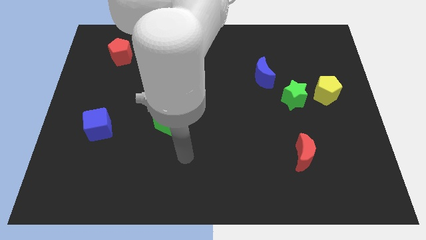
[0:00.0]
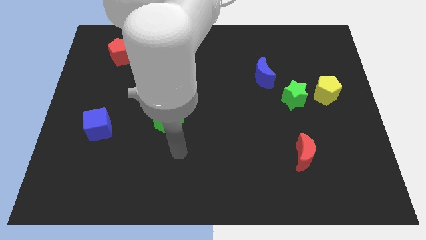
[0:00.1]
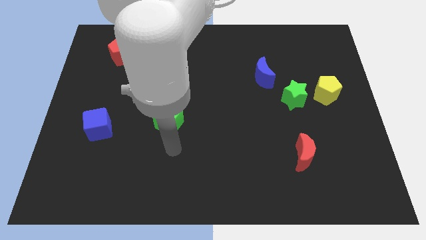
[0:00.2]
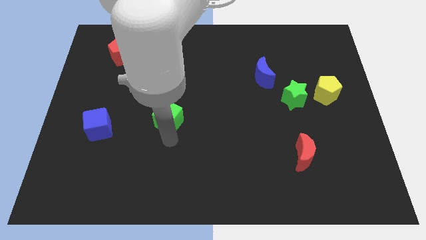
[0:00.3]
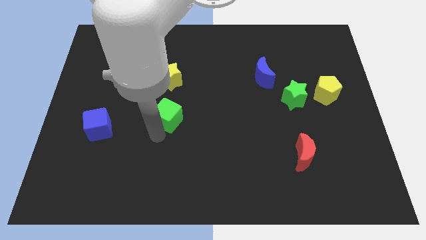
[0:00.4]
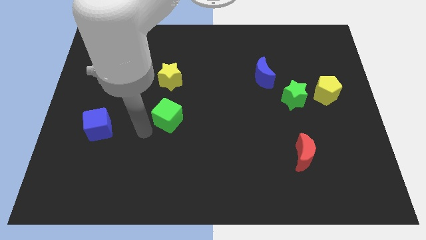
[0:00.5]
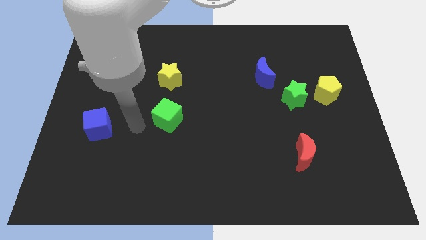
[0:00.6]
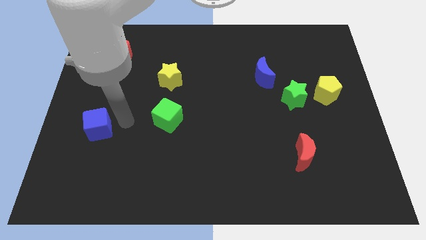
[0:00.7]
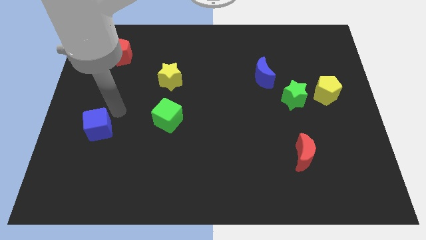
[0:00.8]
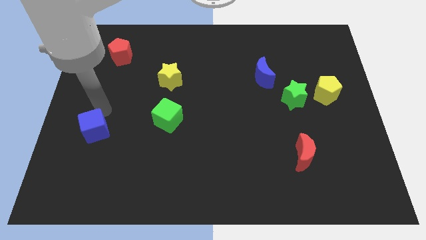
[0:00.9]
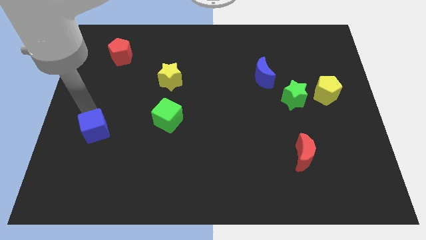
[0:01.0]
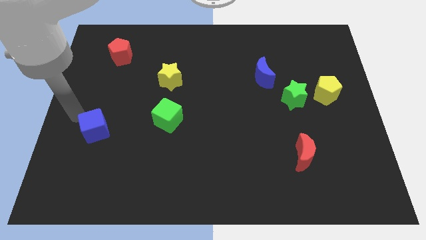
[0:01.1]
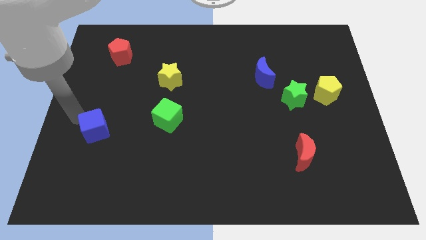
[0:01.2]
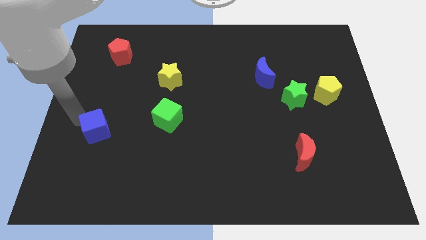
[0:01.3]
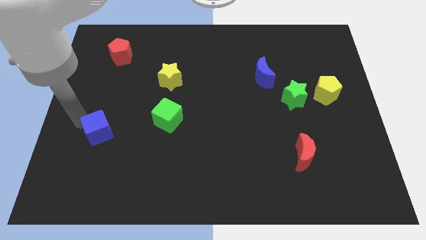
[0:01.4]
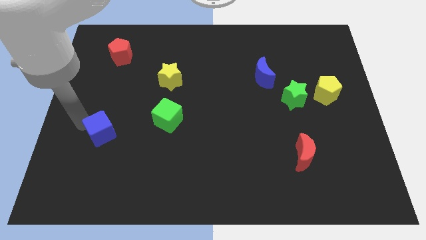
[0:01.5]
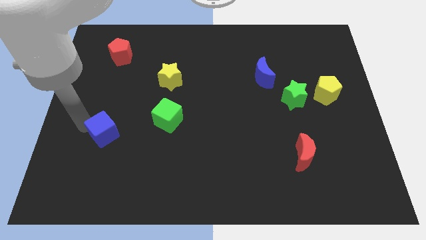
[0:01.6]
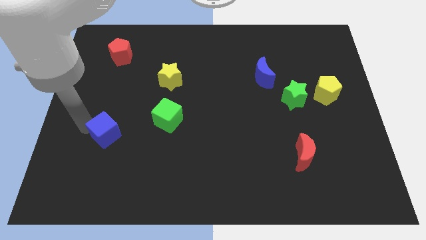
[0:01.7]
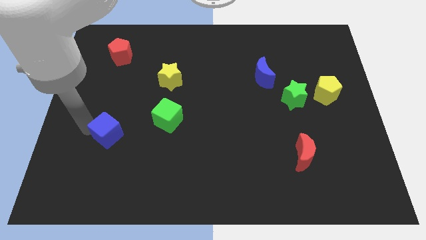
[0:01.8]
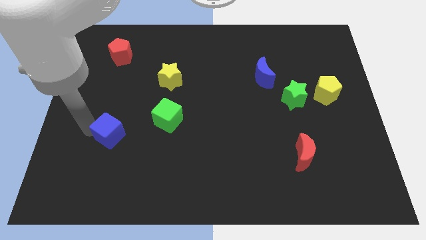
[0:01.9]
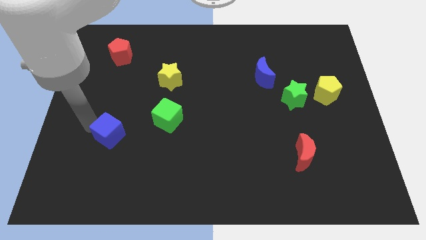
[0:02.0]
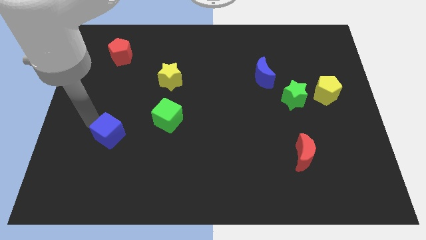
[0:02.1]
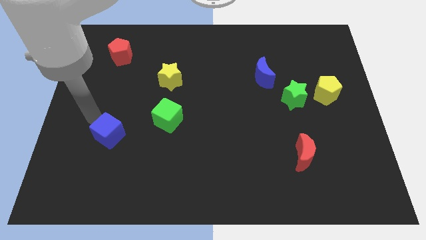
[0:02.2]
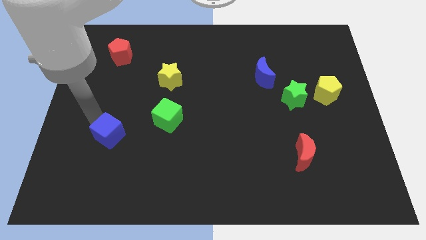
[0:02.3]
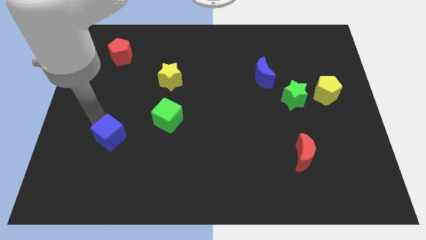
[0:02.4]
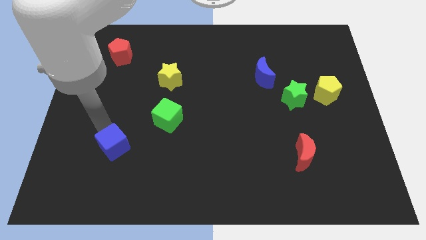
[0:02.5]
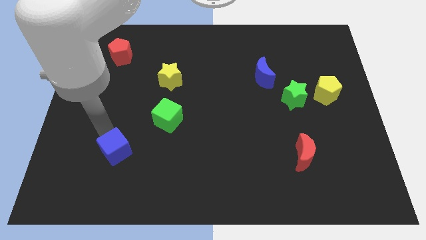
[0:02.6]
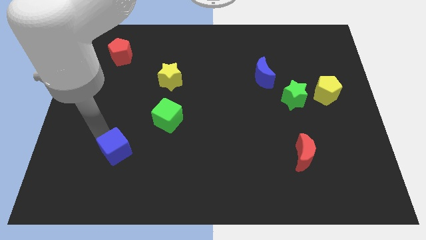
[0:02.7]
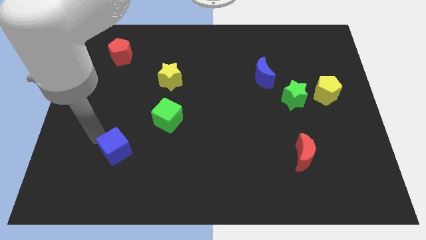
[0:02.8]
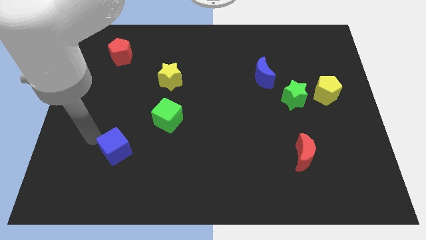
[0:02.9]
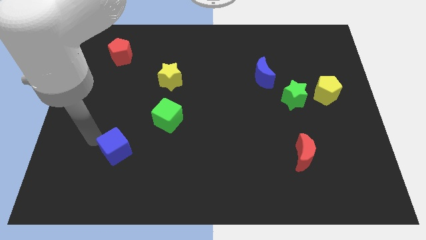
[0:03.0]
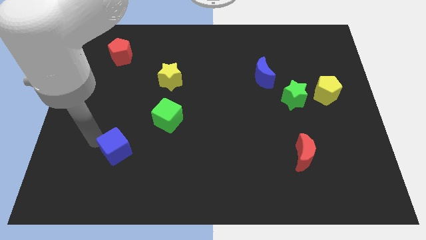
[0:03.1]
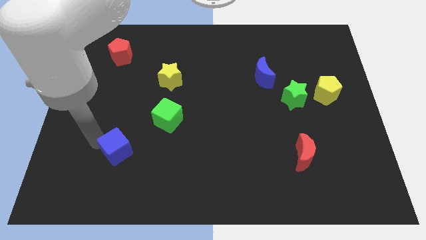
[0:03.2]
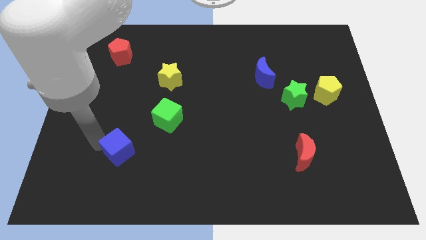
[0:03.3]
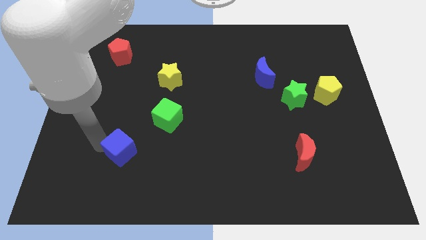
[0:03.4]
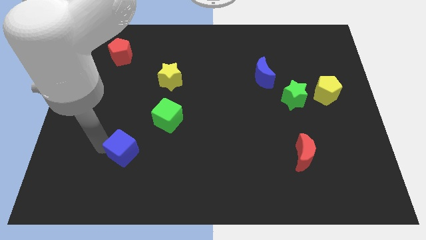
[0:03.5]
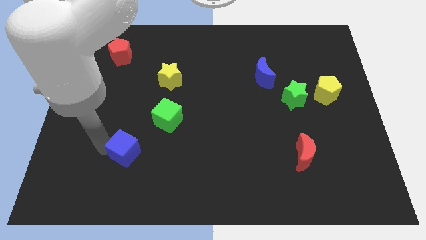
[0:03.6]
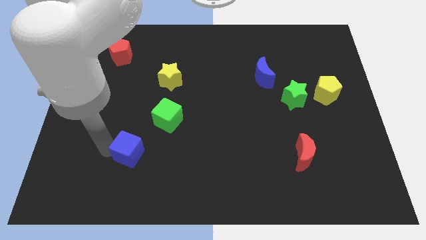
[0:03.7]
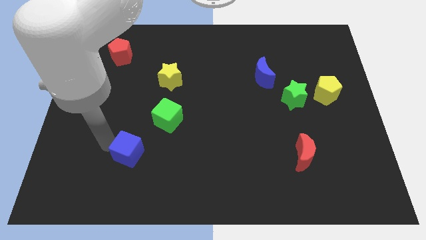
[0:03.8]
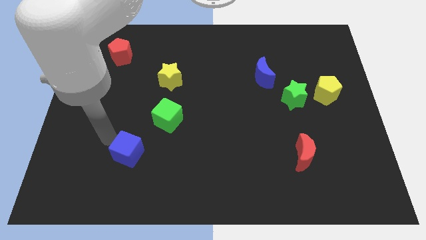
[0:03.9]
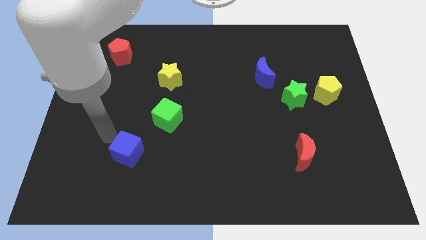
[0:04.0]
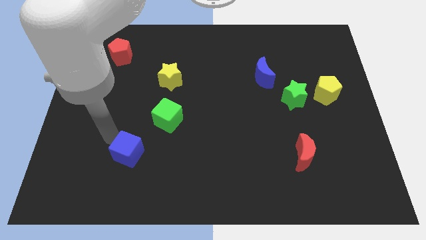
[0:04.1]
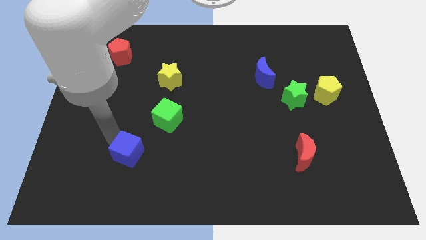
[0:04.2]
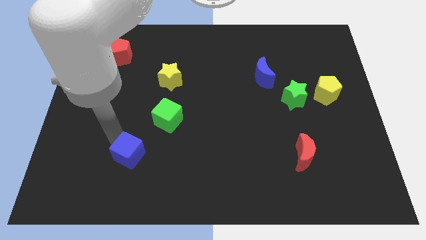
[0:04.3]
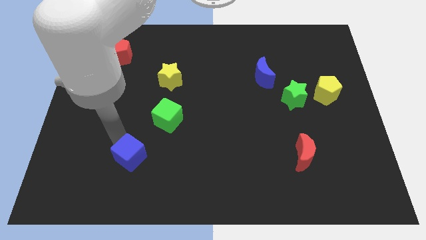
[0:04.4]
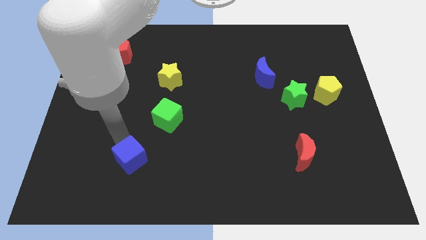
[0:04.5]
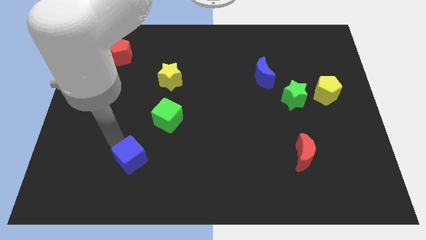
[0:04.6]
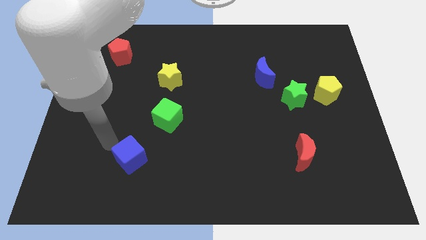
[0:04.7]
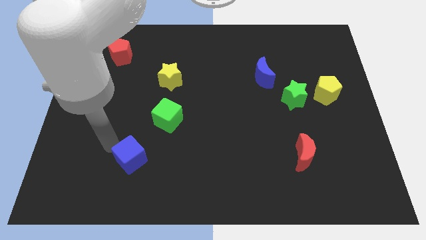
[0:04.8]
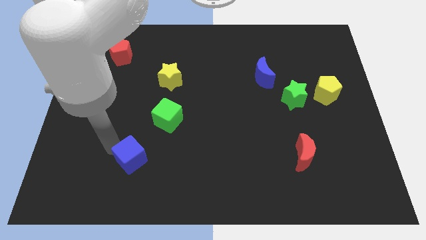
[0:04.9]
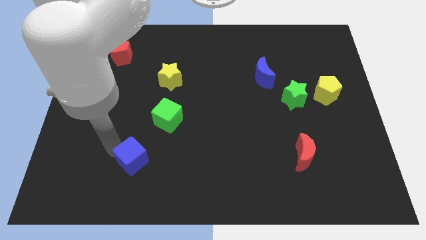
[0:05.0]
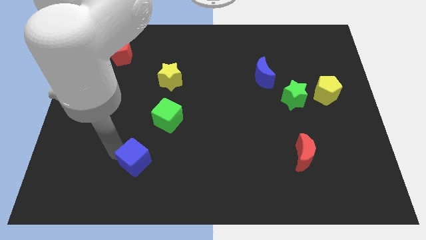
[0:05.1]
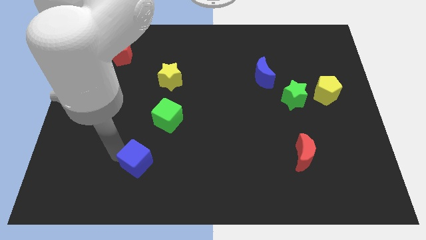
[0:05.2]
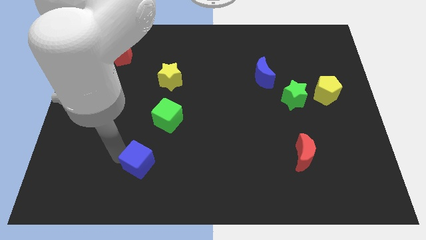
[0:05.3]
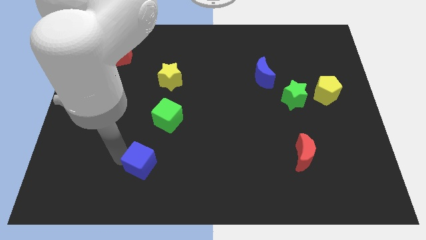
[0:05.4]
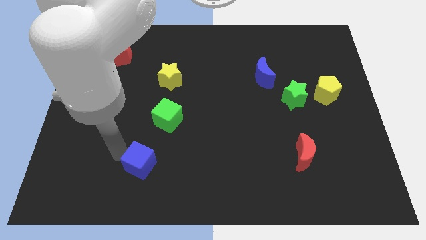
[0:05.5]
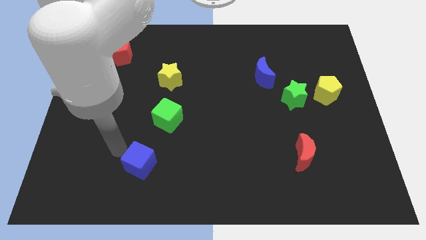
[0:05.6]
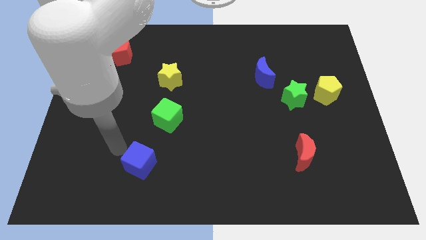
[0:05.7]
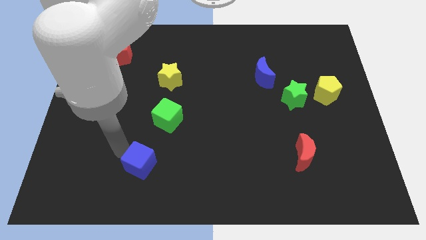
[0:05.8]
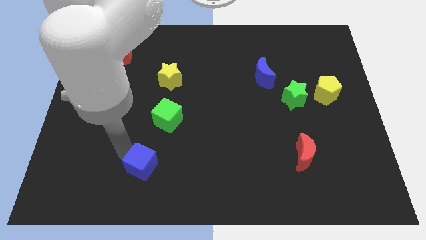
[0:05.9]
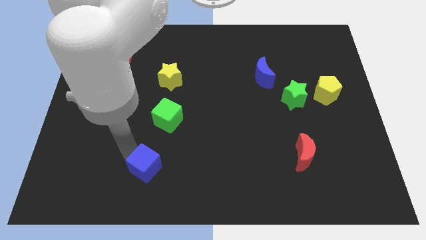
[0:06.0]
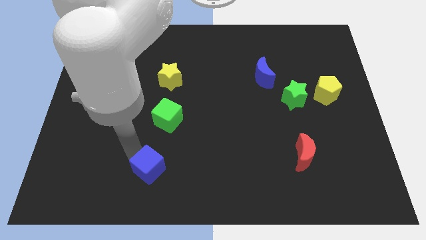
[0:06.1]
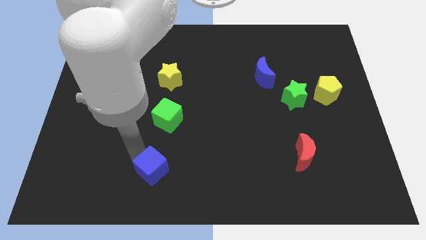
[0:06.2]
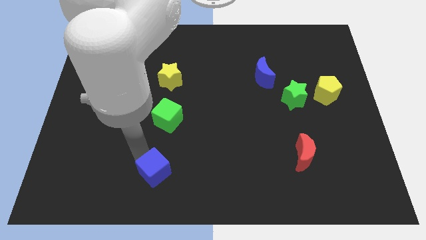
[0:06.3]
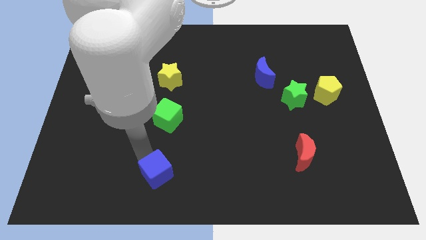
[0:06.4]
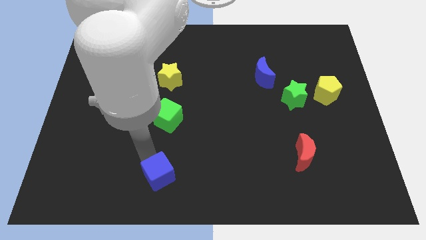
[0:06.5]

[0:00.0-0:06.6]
slide the blue cube to the bottom

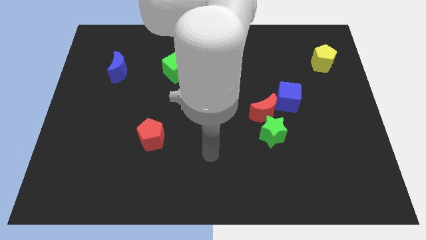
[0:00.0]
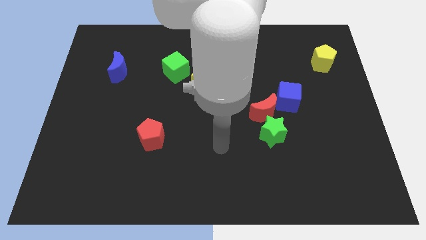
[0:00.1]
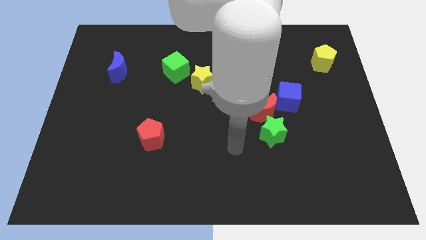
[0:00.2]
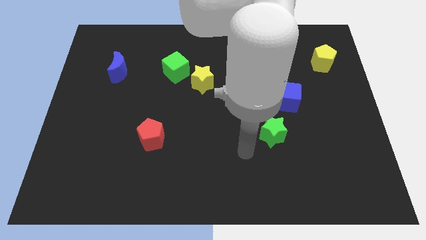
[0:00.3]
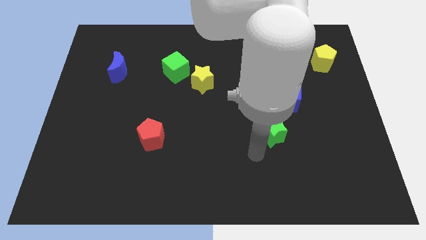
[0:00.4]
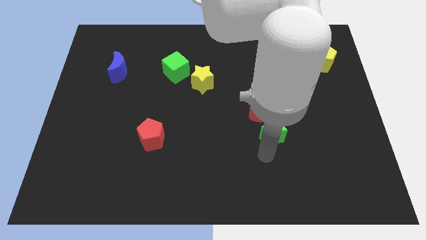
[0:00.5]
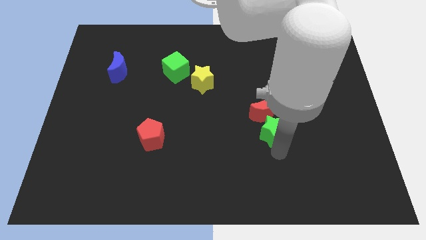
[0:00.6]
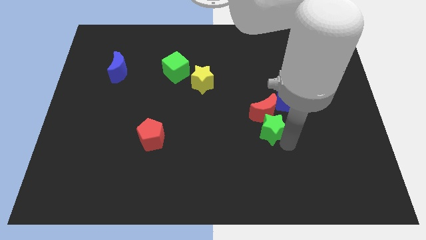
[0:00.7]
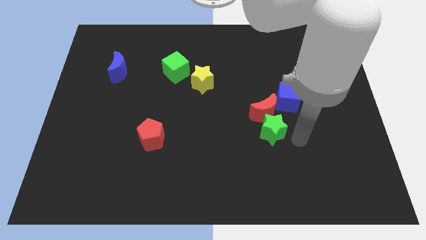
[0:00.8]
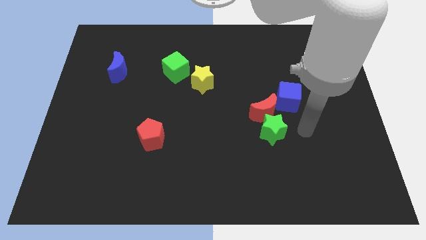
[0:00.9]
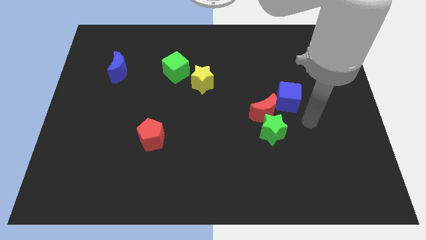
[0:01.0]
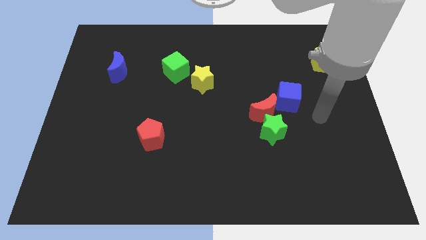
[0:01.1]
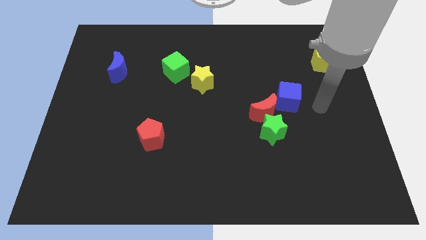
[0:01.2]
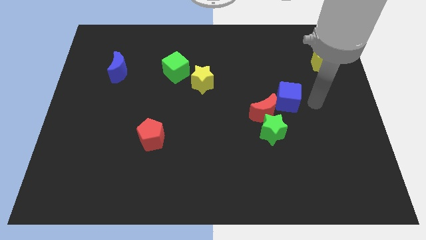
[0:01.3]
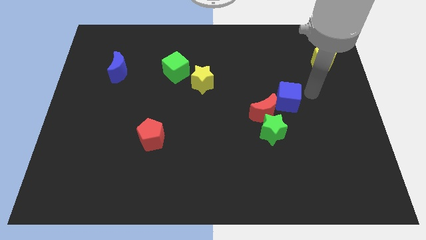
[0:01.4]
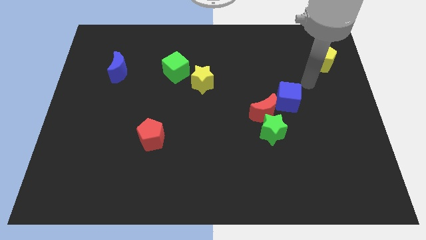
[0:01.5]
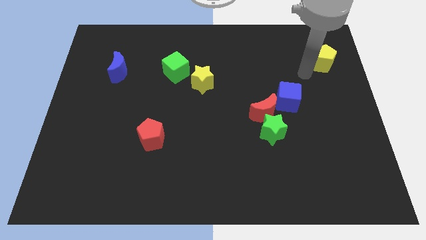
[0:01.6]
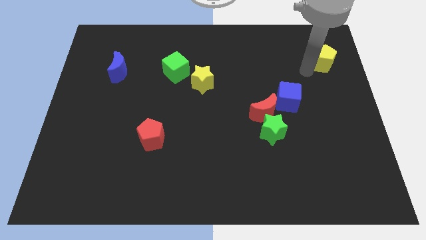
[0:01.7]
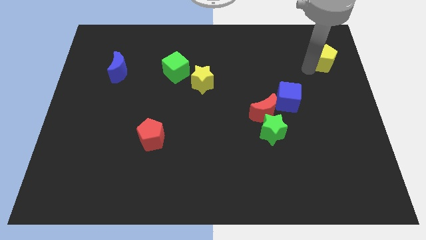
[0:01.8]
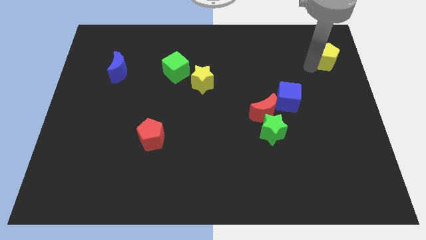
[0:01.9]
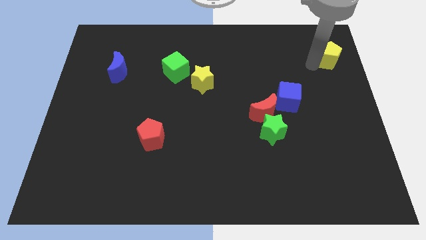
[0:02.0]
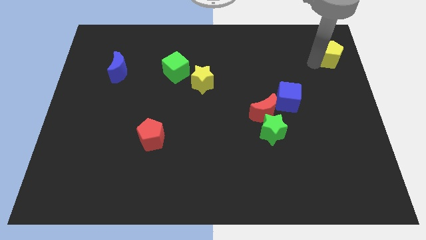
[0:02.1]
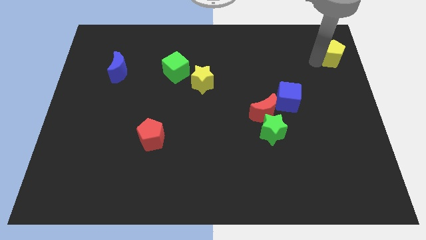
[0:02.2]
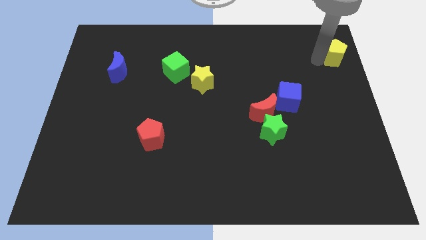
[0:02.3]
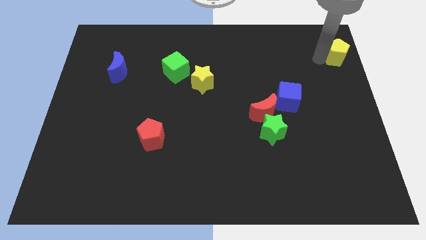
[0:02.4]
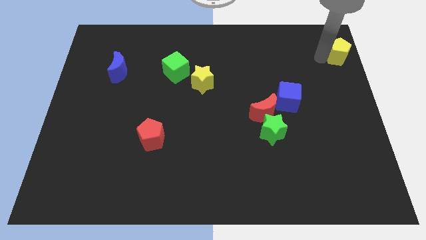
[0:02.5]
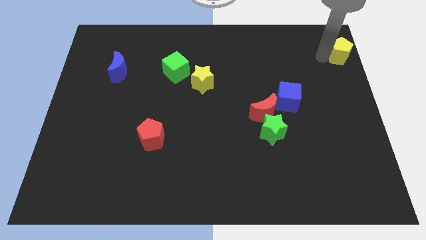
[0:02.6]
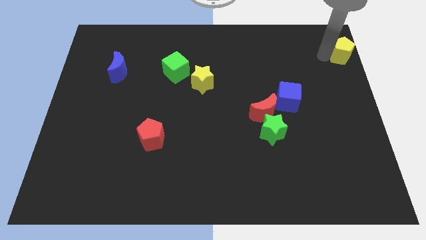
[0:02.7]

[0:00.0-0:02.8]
put the yellow pentagon to the top right of the board
